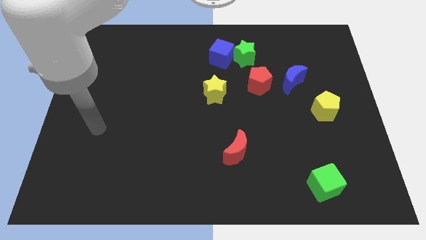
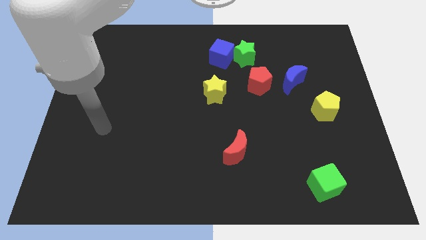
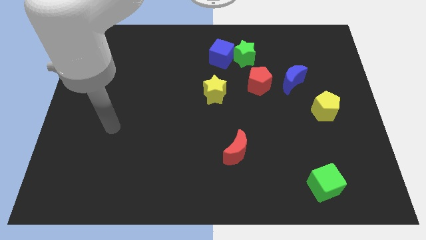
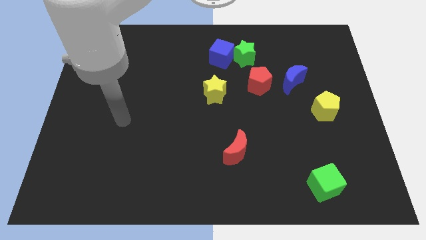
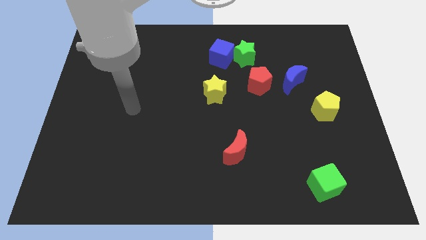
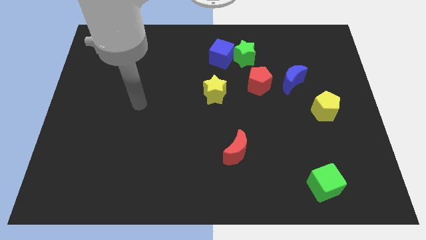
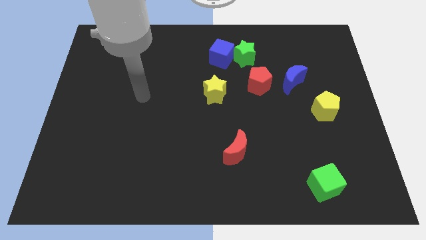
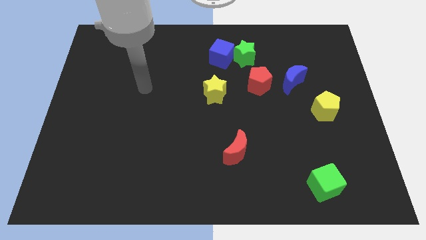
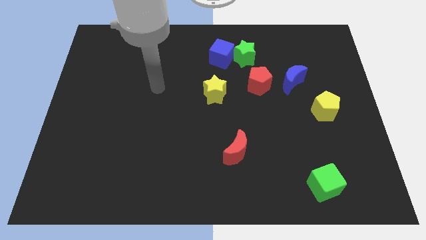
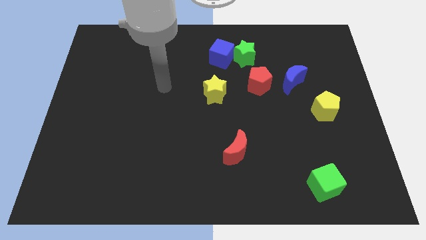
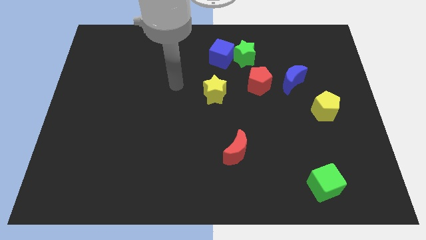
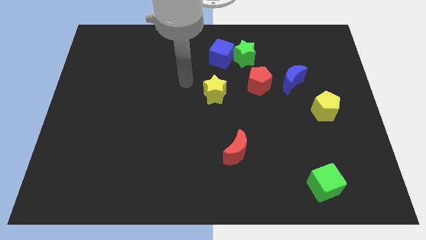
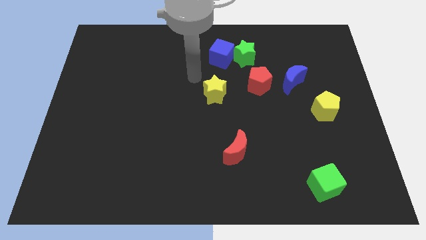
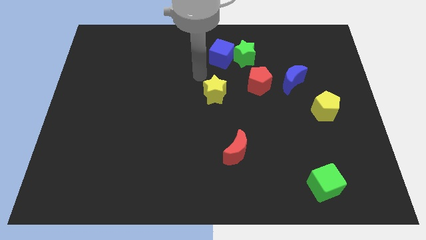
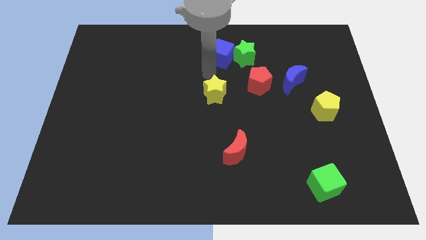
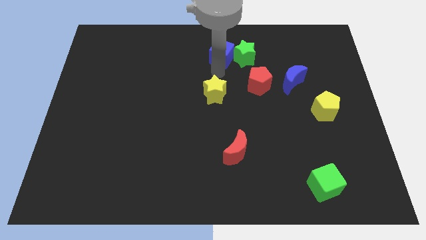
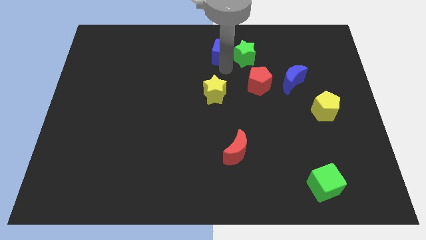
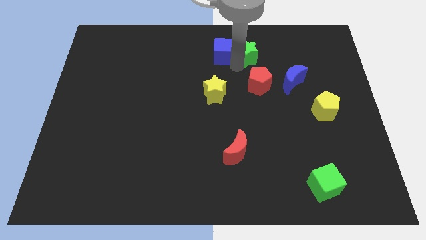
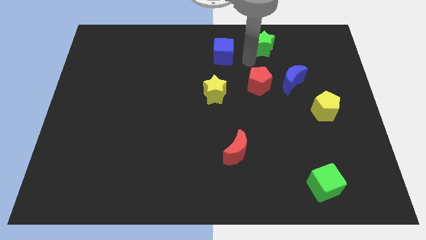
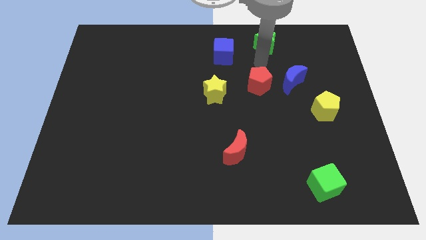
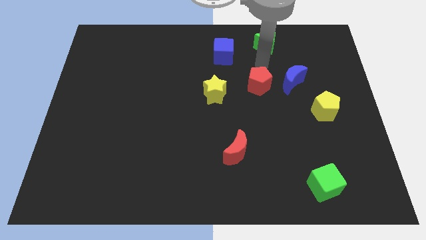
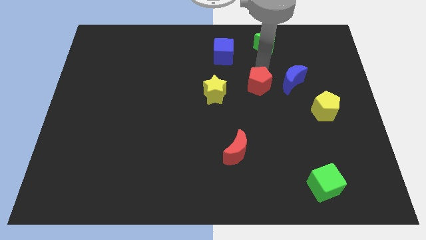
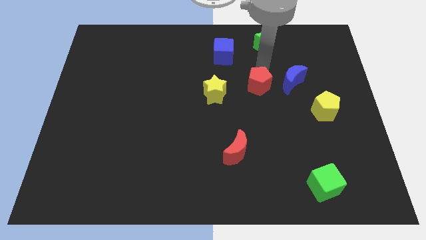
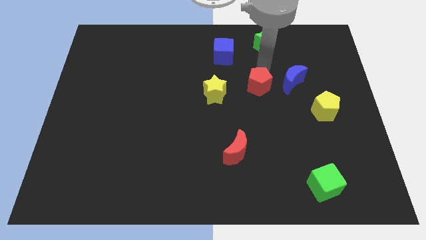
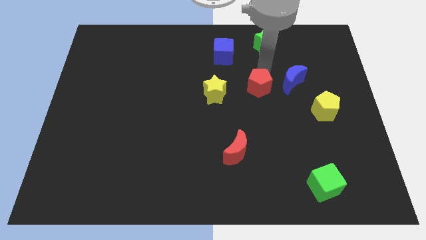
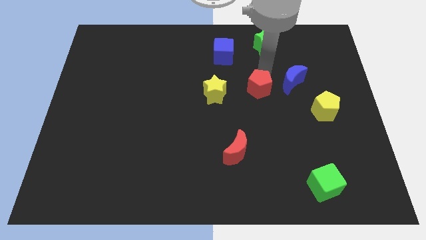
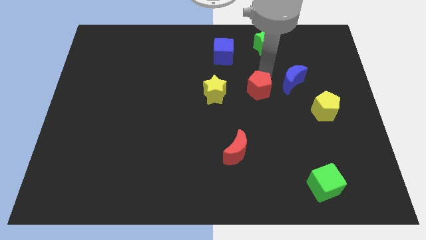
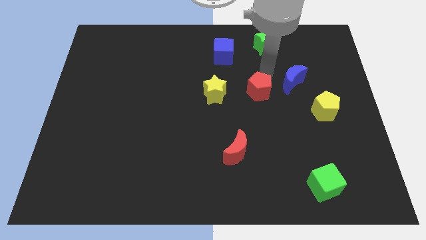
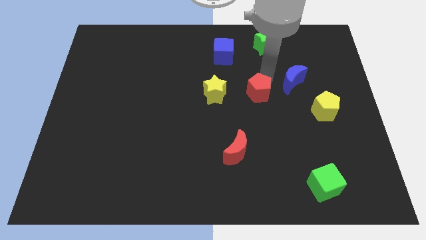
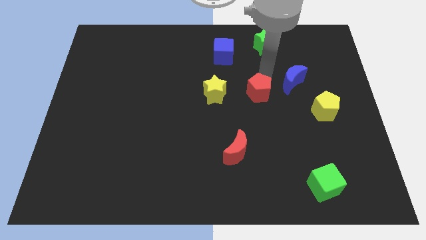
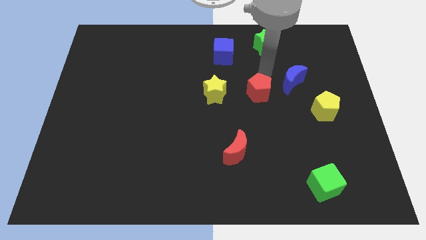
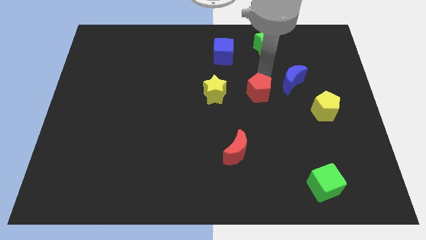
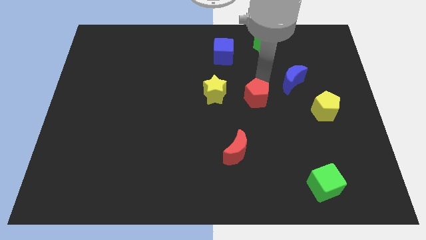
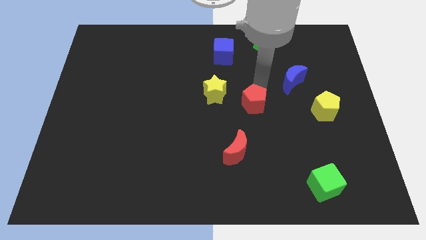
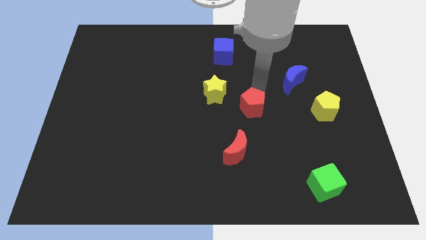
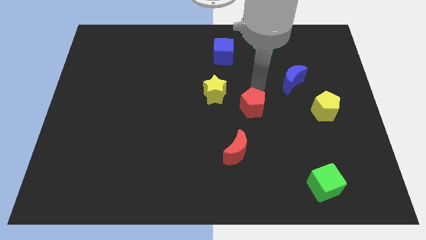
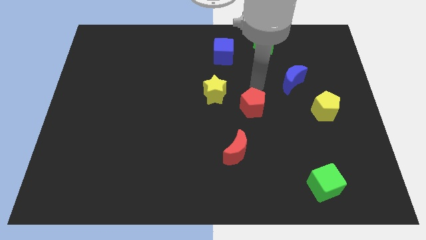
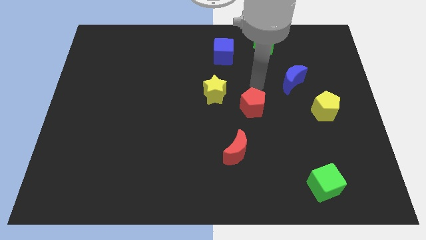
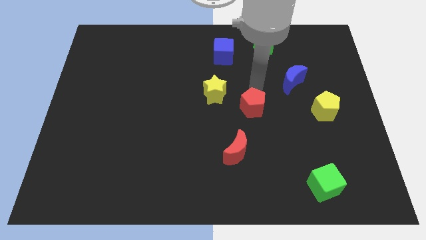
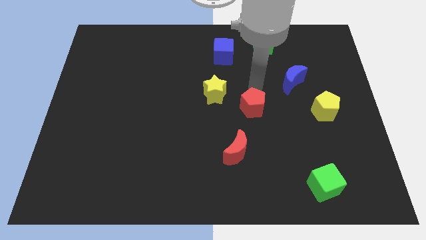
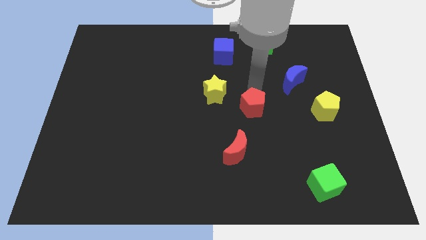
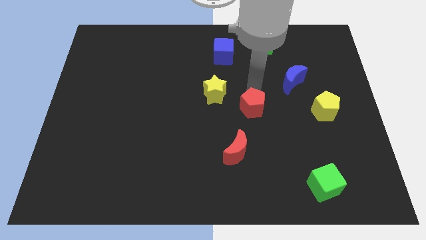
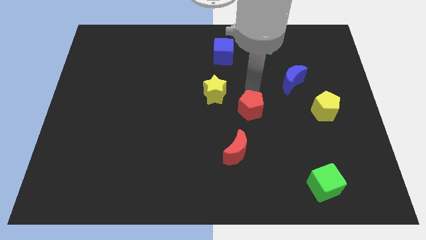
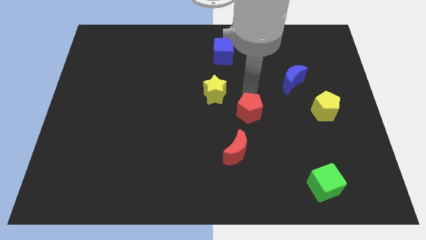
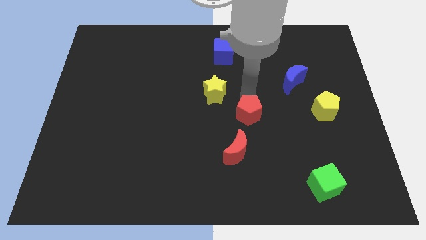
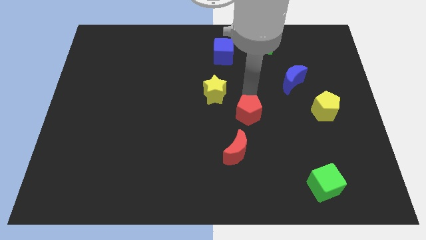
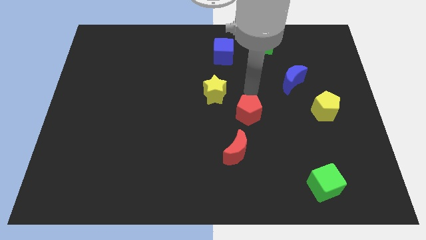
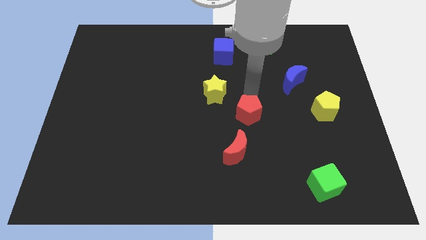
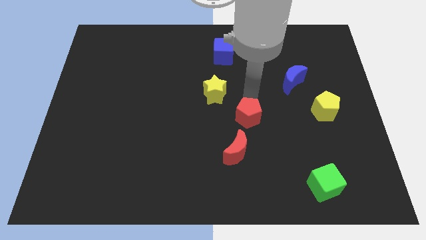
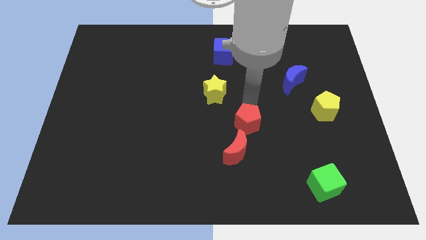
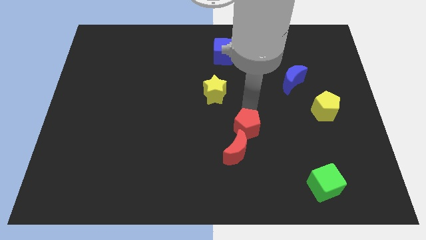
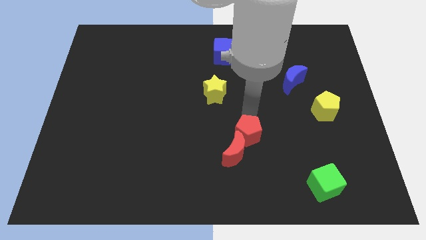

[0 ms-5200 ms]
push the red pentagon towards the red moon

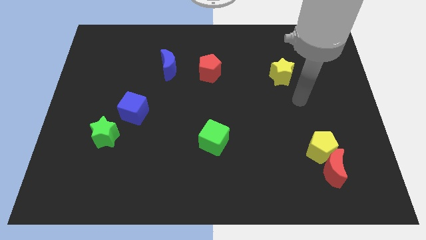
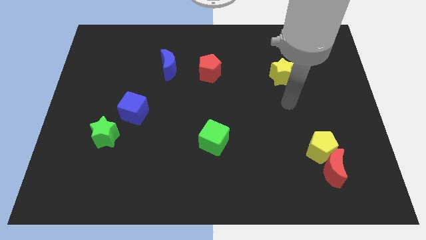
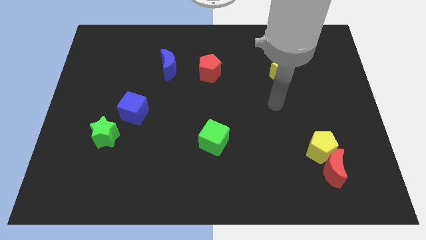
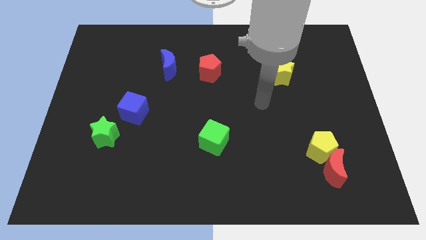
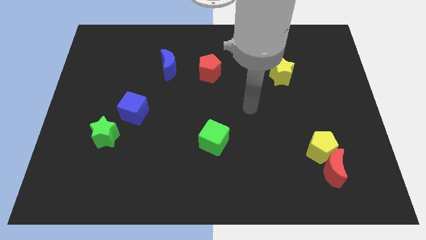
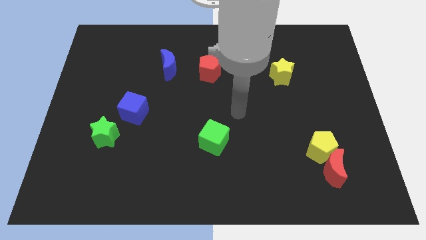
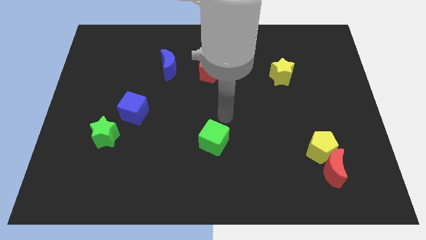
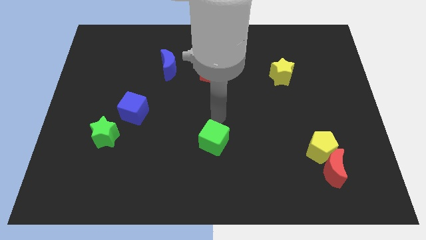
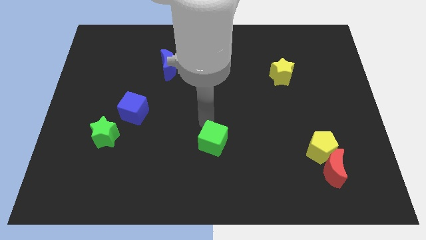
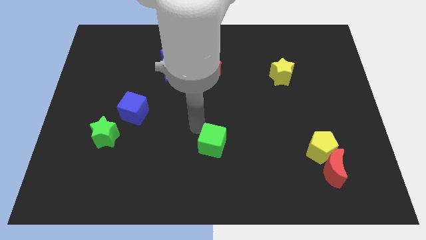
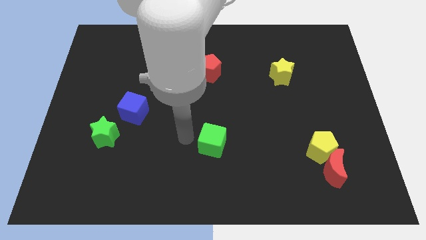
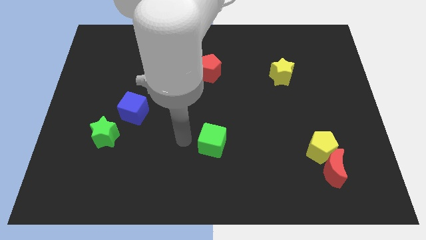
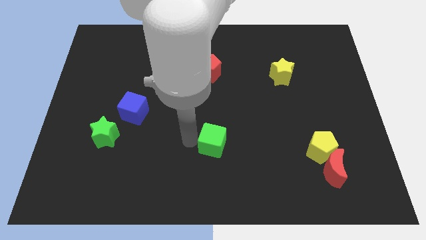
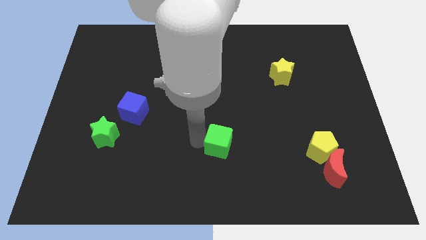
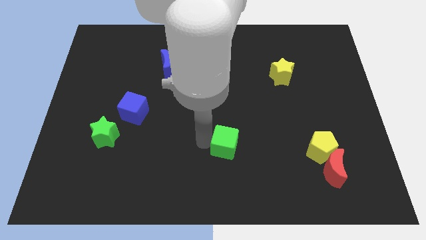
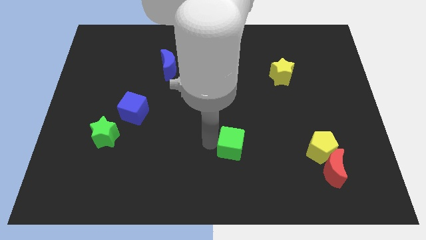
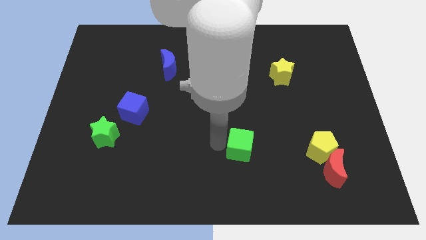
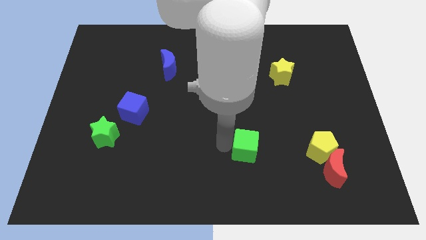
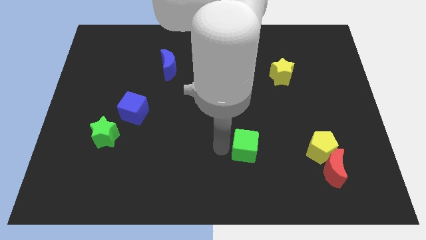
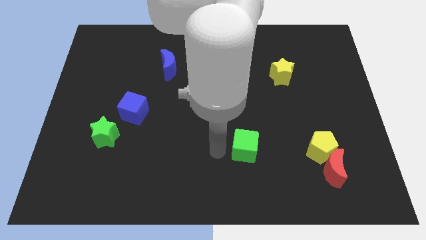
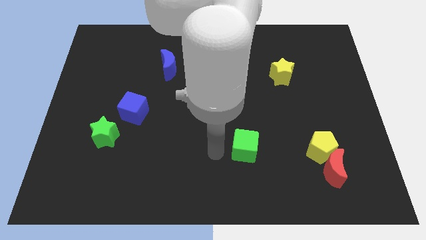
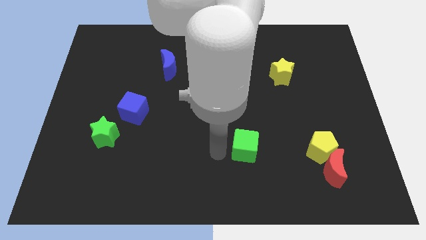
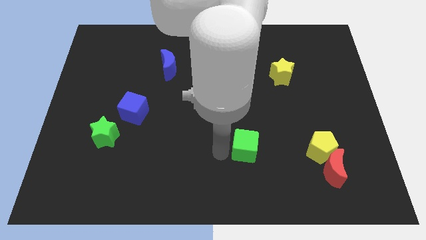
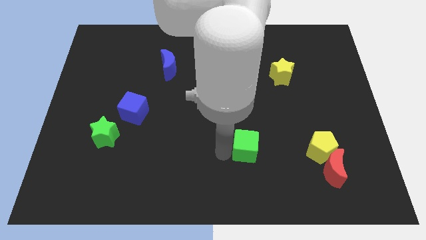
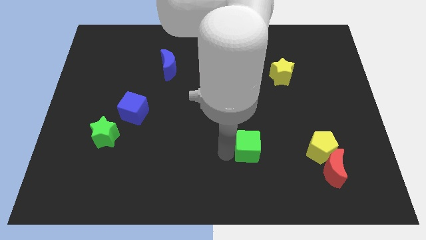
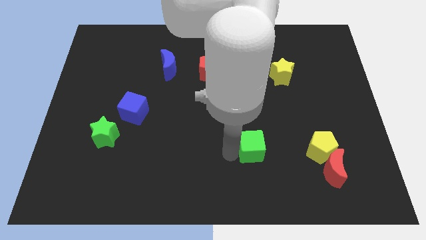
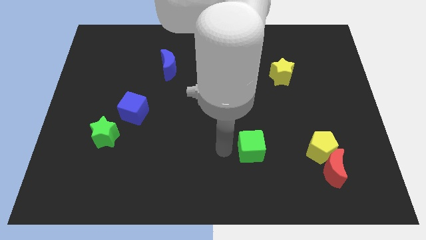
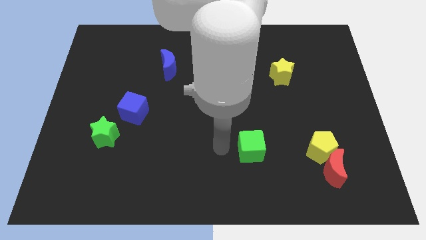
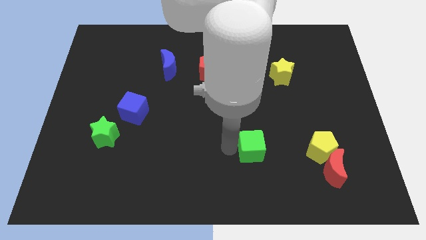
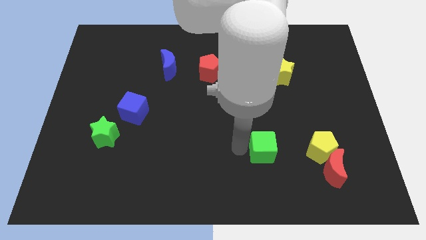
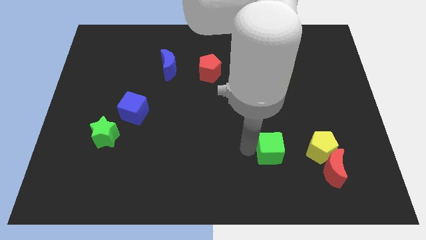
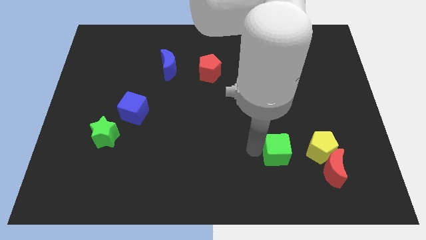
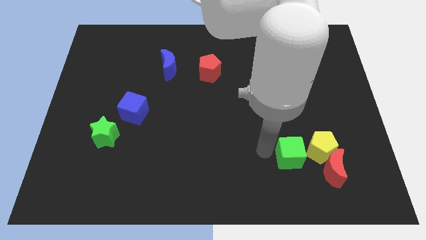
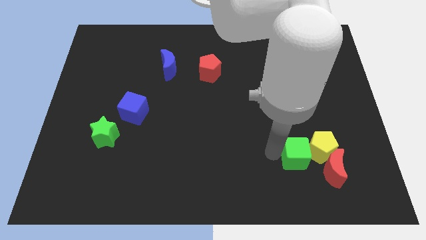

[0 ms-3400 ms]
move the green cube to the yellow pentagon

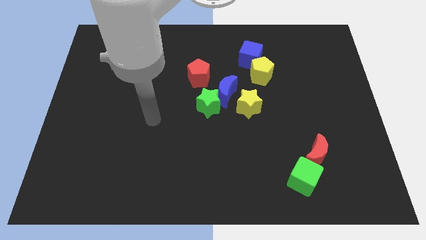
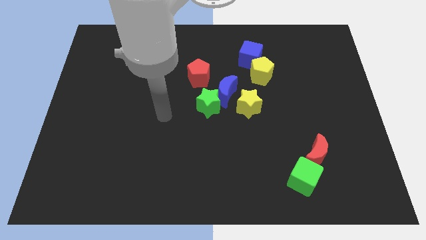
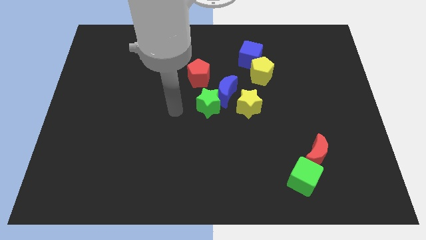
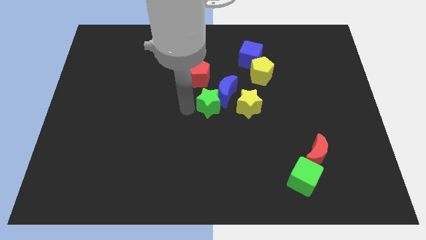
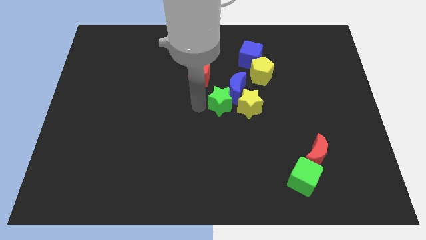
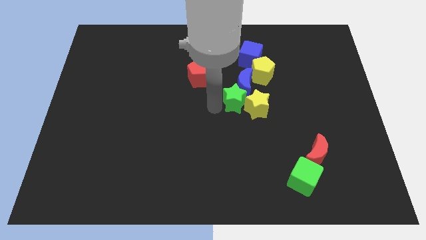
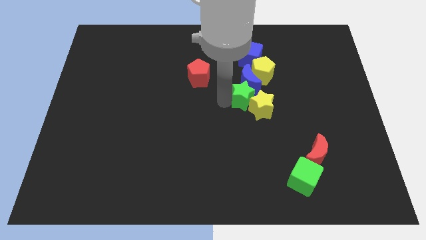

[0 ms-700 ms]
move the blue moon close to the yellow pentagon
